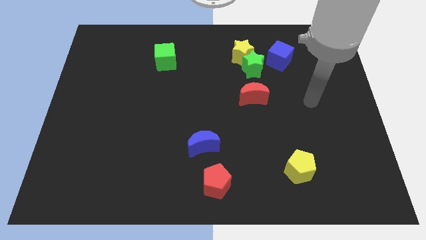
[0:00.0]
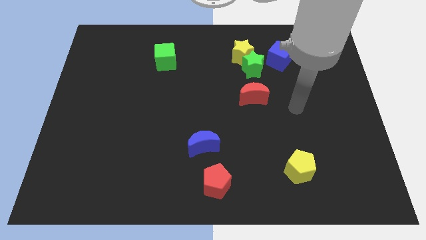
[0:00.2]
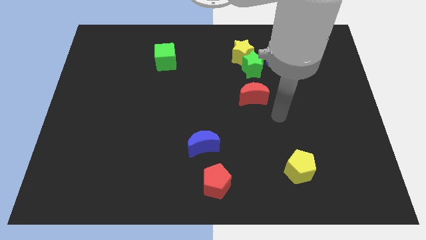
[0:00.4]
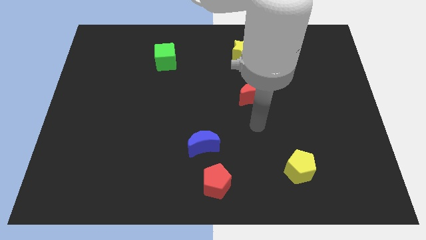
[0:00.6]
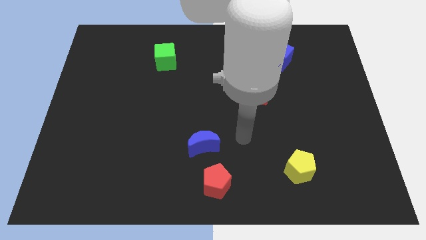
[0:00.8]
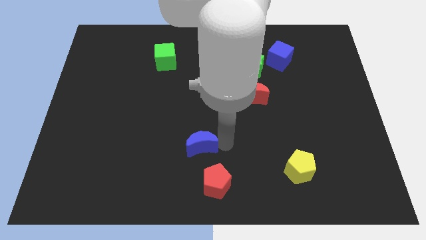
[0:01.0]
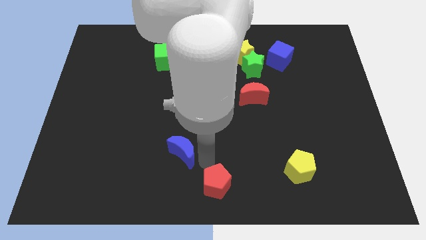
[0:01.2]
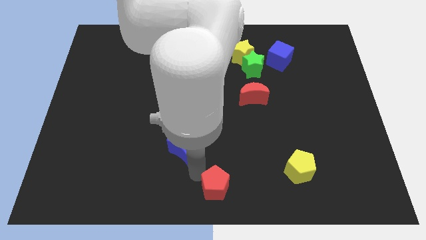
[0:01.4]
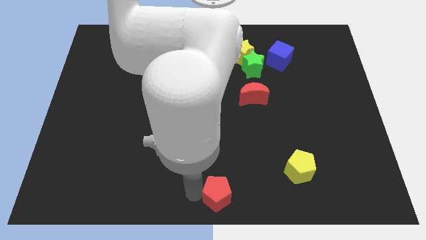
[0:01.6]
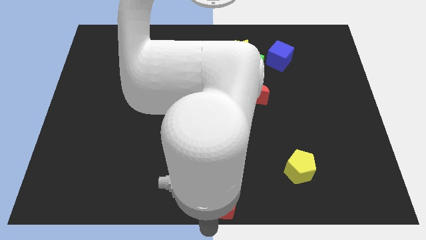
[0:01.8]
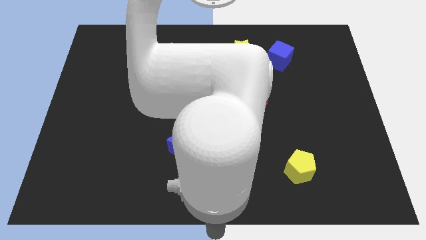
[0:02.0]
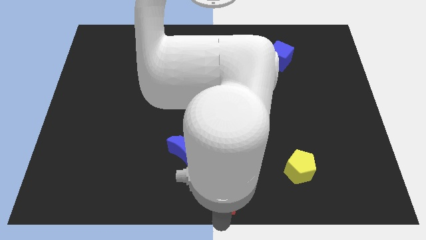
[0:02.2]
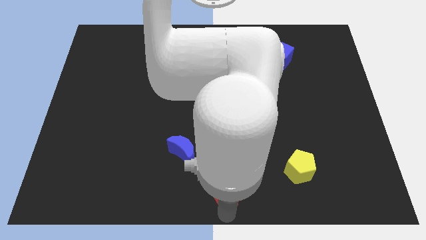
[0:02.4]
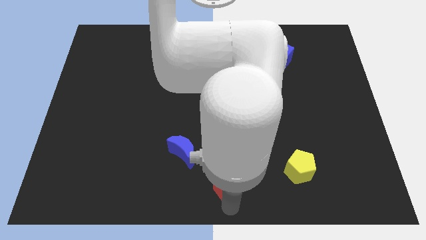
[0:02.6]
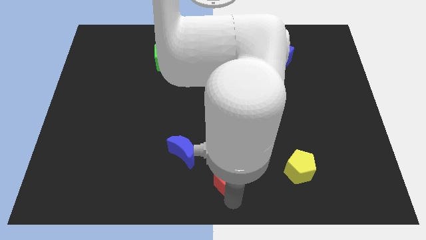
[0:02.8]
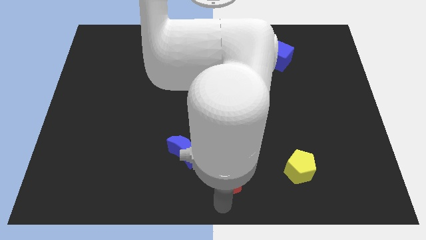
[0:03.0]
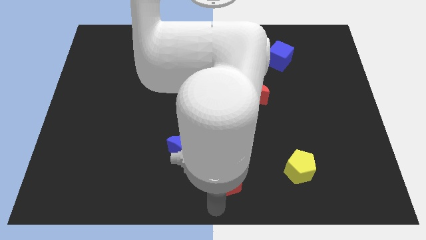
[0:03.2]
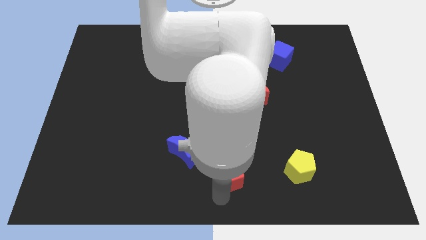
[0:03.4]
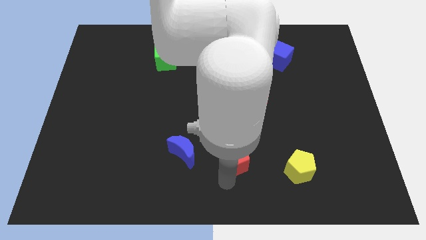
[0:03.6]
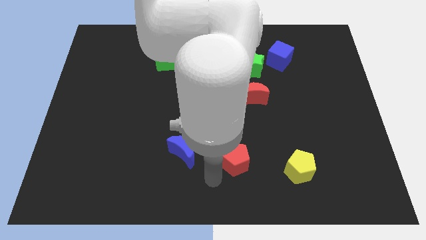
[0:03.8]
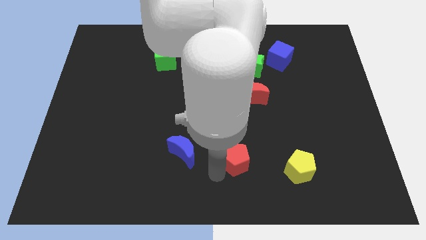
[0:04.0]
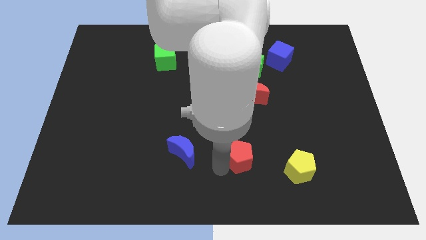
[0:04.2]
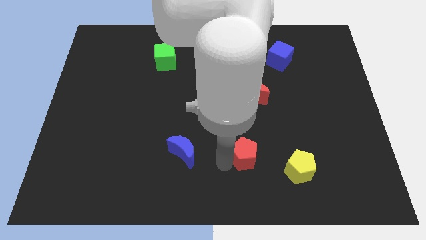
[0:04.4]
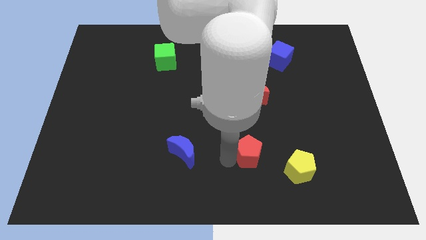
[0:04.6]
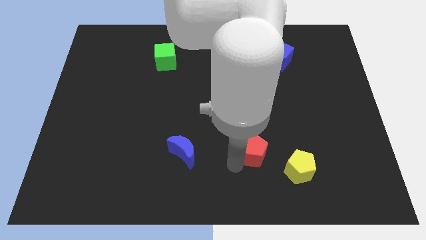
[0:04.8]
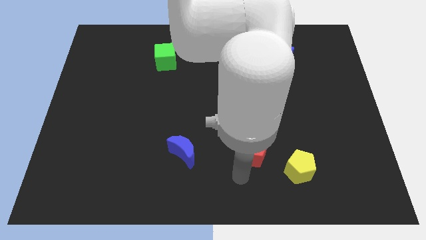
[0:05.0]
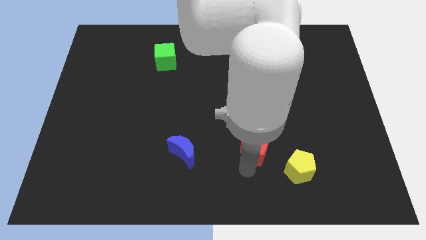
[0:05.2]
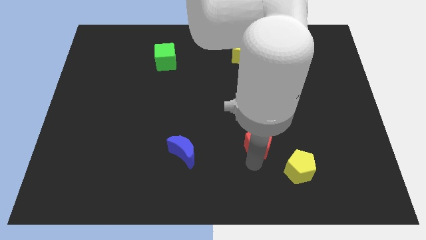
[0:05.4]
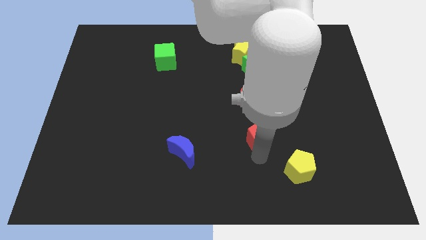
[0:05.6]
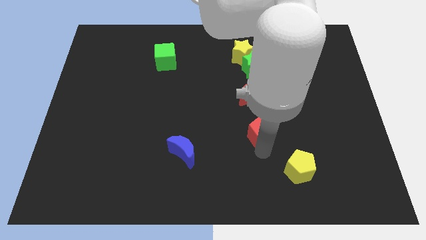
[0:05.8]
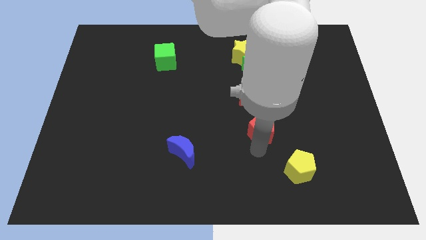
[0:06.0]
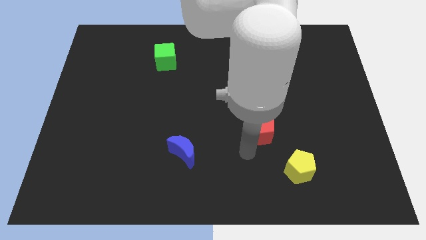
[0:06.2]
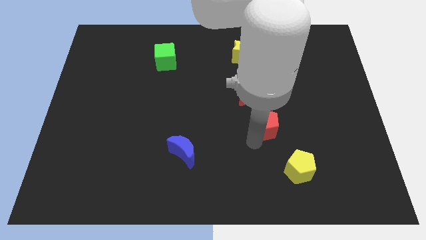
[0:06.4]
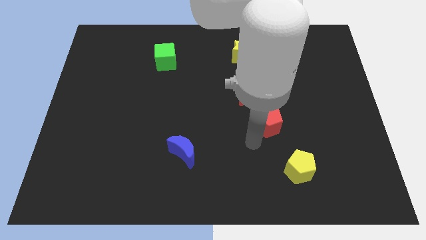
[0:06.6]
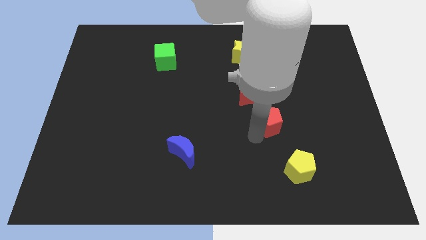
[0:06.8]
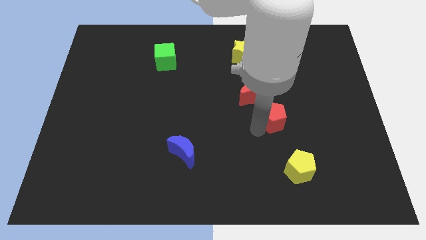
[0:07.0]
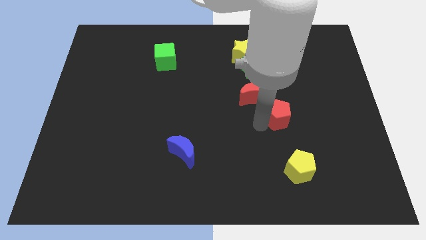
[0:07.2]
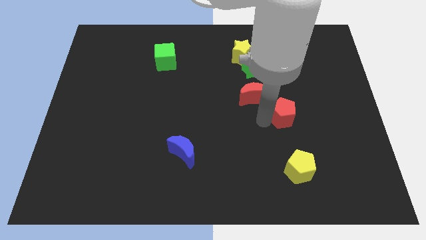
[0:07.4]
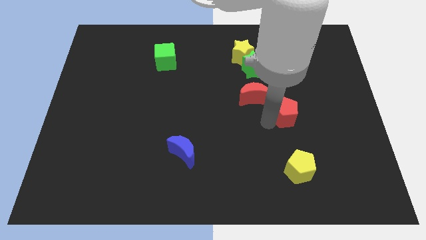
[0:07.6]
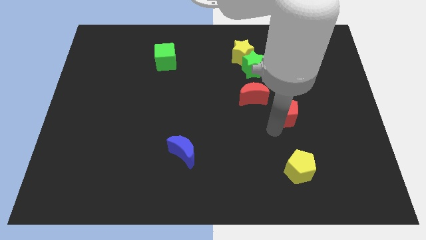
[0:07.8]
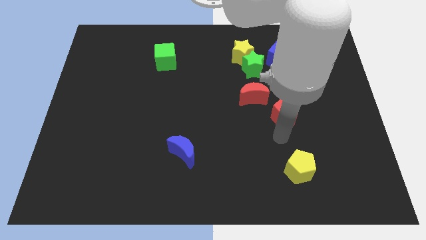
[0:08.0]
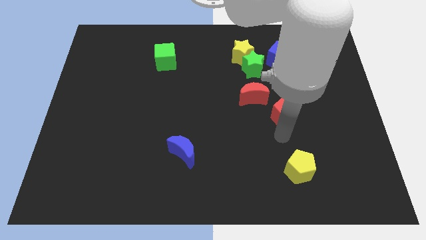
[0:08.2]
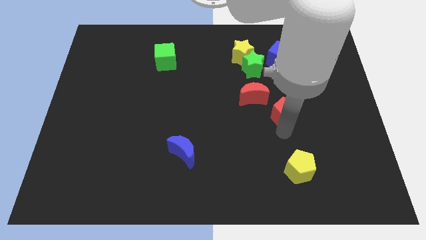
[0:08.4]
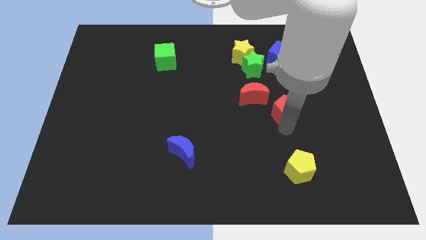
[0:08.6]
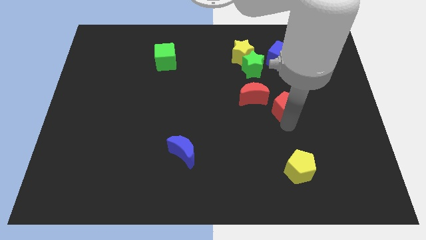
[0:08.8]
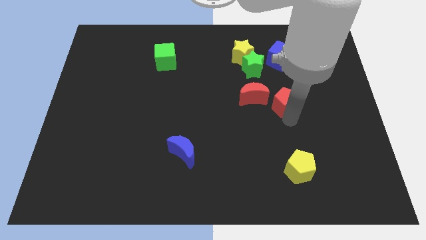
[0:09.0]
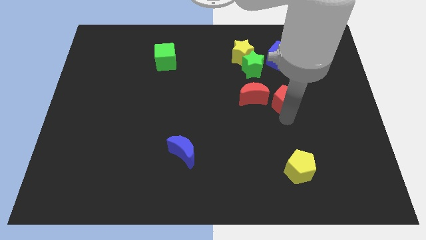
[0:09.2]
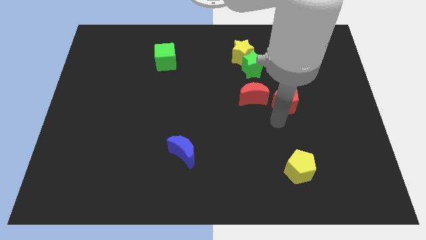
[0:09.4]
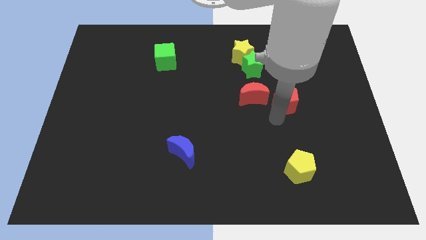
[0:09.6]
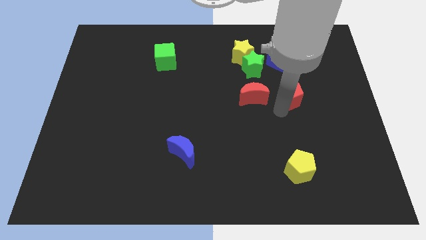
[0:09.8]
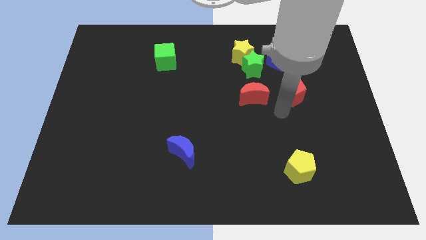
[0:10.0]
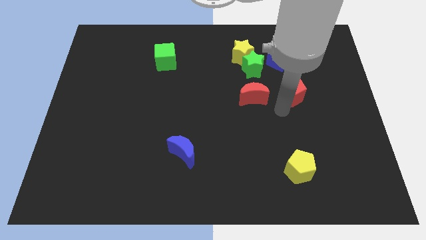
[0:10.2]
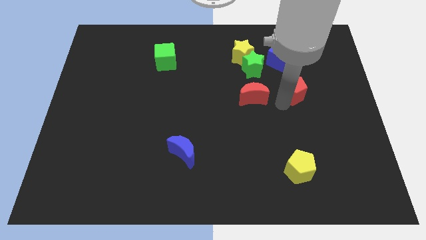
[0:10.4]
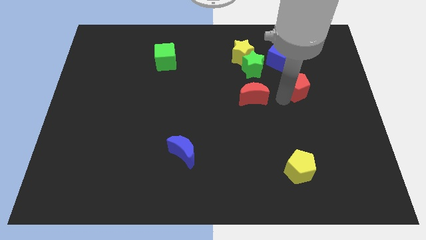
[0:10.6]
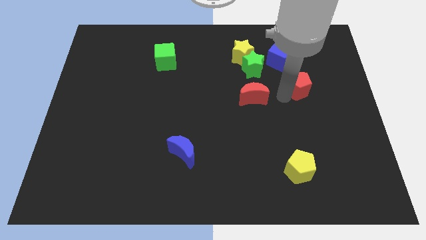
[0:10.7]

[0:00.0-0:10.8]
slide the red pentagon diagonally down and to the right of the blue cube

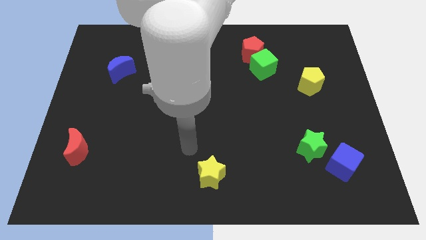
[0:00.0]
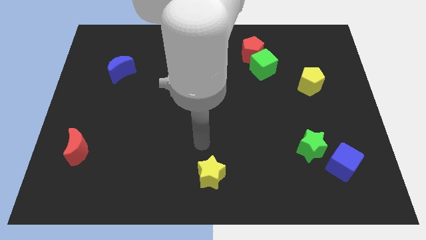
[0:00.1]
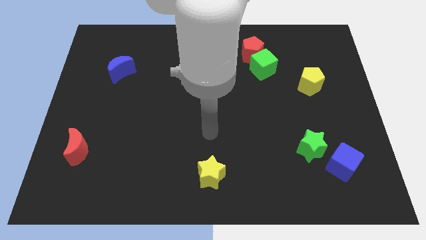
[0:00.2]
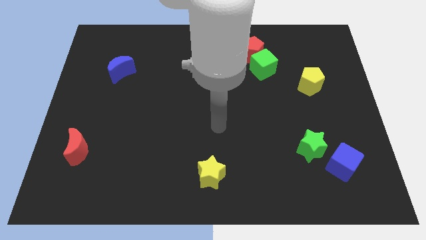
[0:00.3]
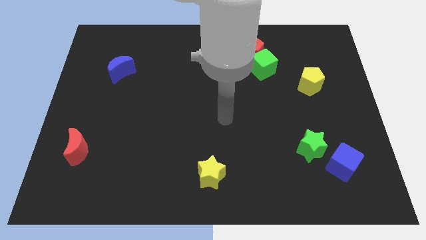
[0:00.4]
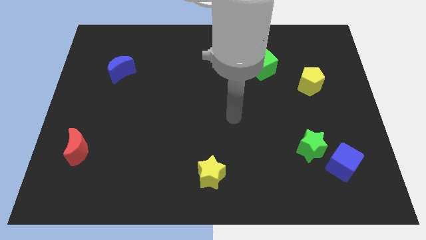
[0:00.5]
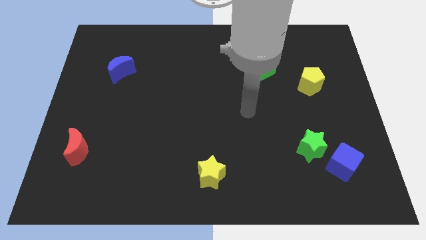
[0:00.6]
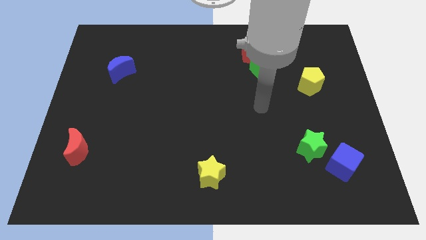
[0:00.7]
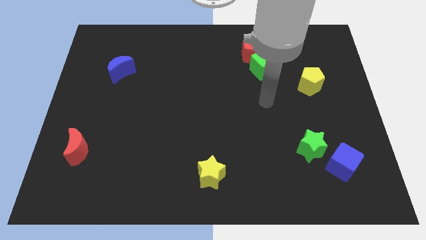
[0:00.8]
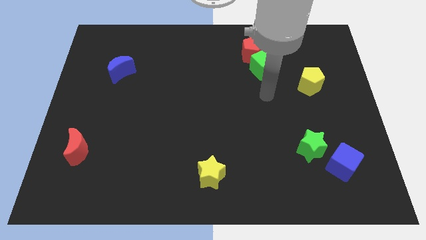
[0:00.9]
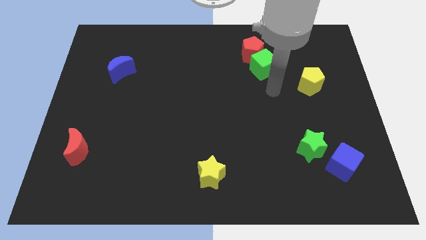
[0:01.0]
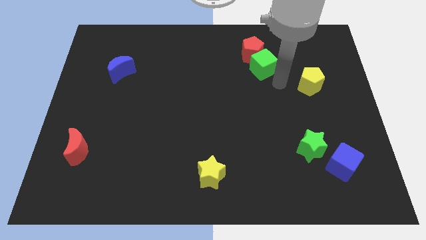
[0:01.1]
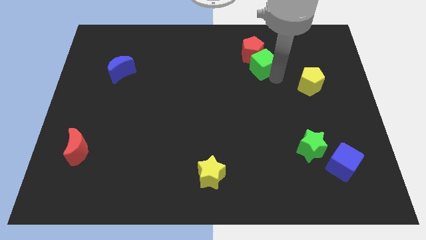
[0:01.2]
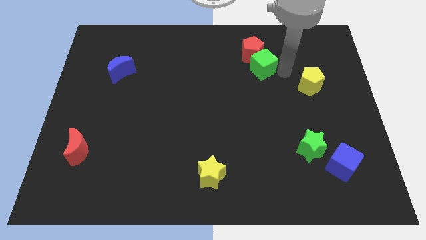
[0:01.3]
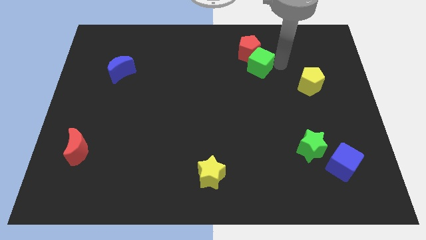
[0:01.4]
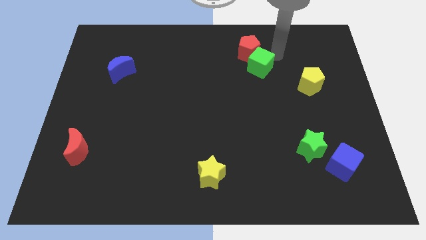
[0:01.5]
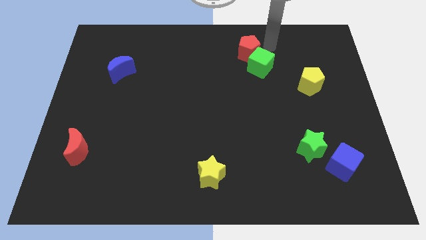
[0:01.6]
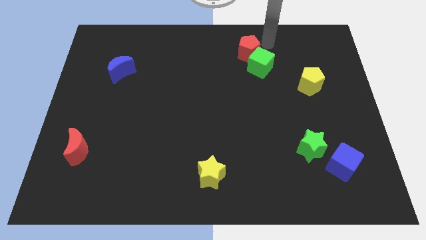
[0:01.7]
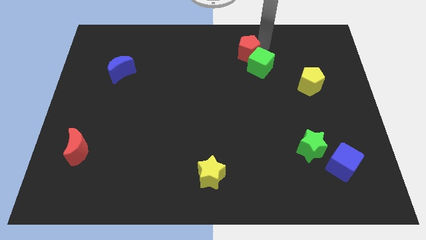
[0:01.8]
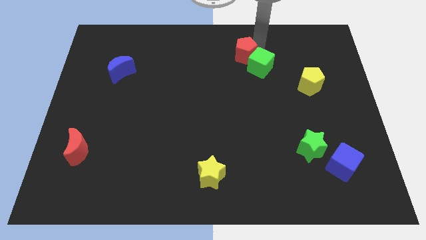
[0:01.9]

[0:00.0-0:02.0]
slide the red pentagon to the left side of the green cube
